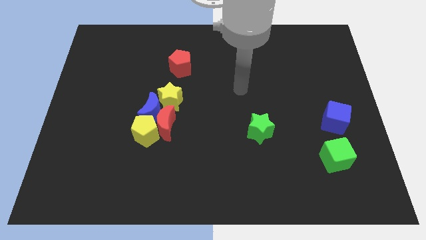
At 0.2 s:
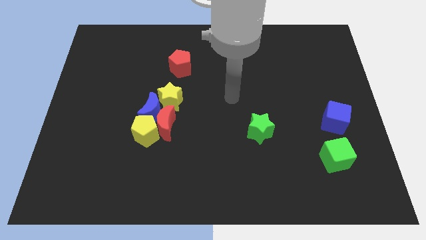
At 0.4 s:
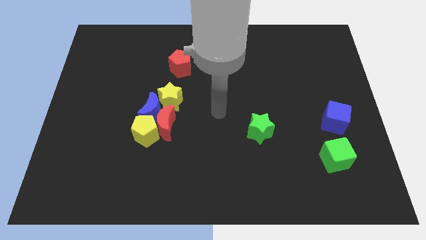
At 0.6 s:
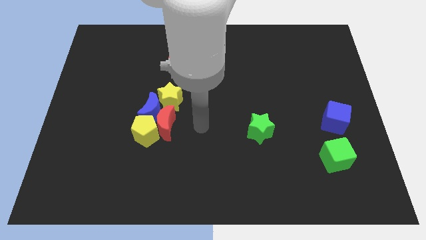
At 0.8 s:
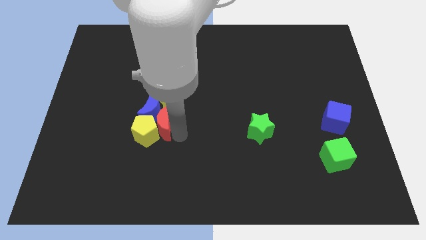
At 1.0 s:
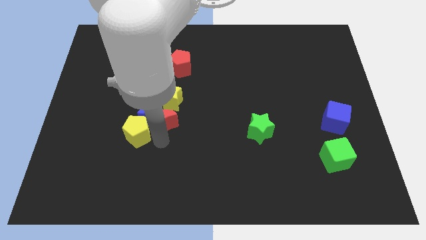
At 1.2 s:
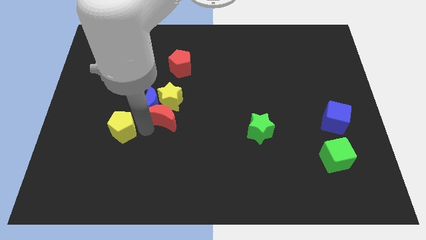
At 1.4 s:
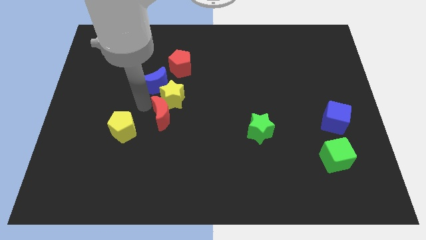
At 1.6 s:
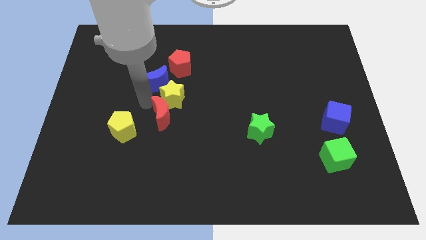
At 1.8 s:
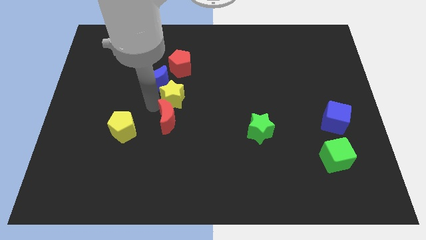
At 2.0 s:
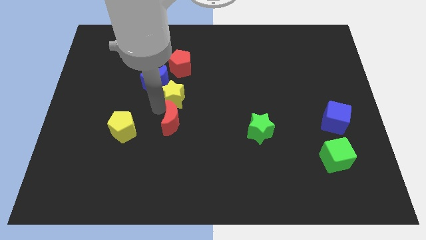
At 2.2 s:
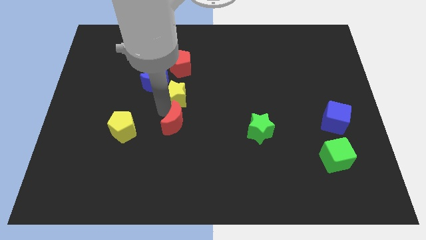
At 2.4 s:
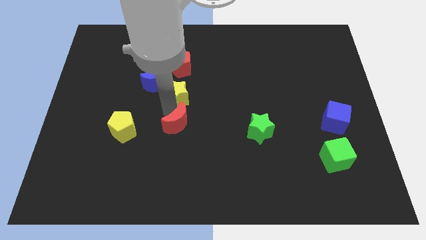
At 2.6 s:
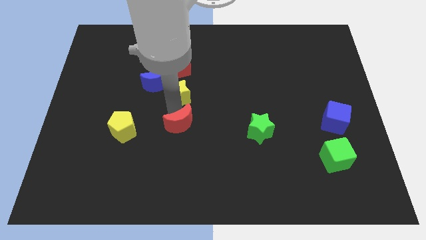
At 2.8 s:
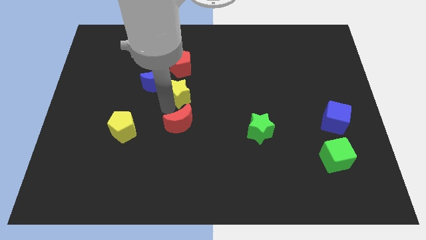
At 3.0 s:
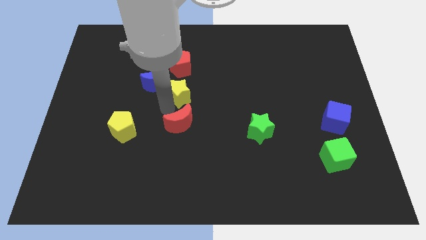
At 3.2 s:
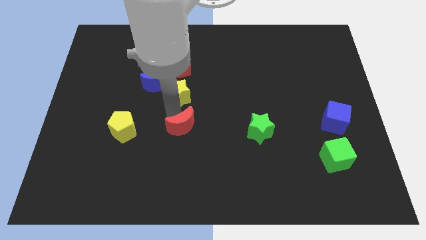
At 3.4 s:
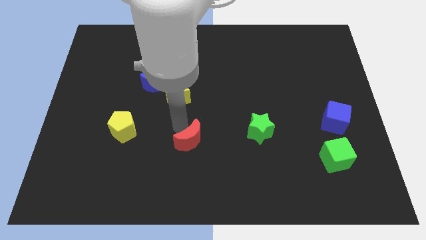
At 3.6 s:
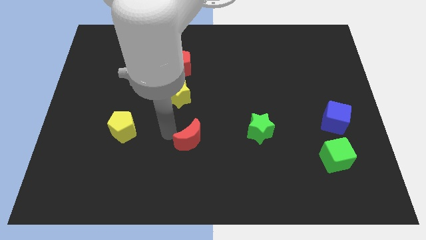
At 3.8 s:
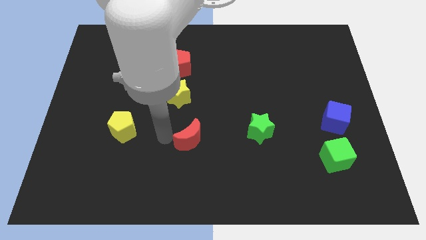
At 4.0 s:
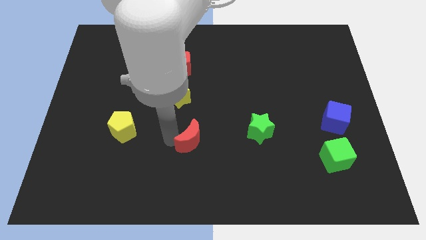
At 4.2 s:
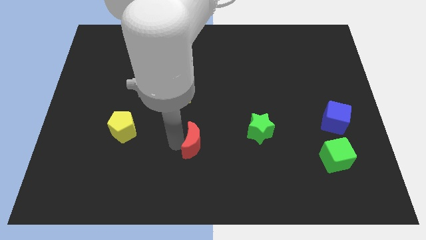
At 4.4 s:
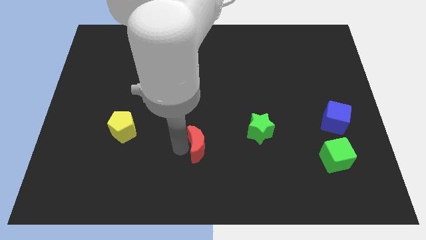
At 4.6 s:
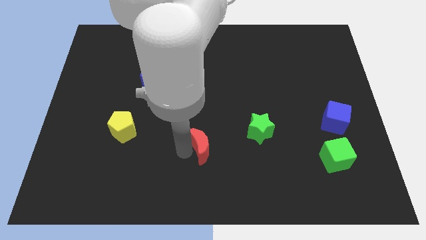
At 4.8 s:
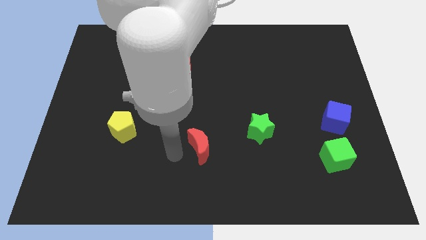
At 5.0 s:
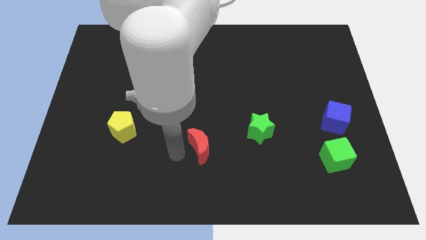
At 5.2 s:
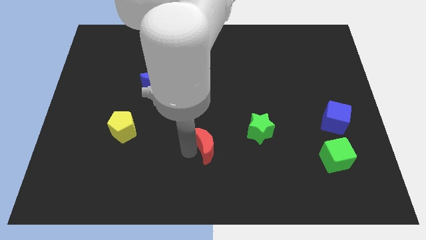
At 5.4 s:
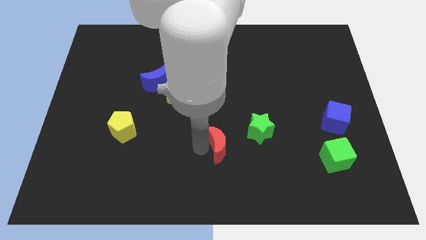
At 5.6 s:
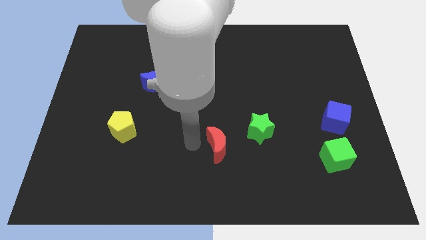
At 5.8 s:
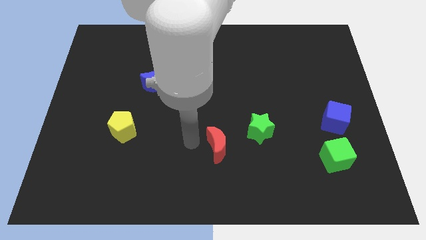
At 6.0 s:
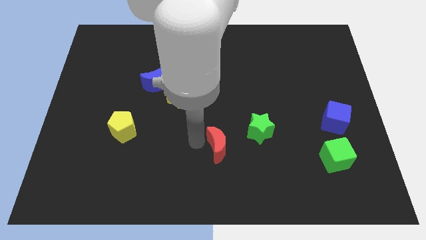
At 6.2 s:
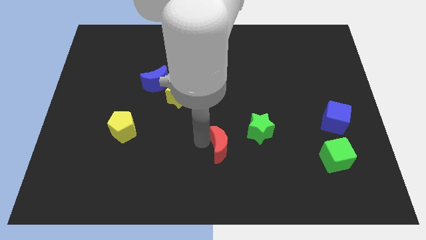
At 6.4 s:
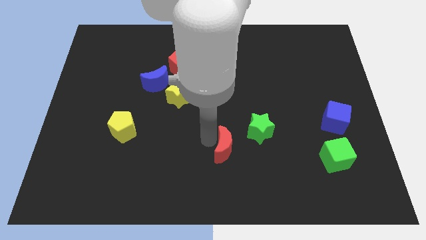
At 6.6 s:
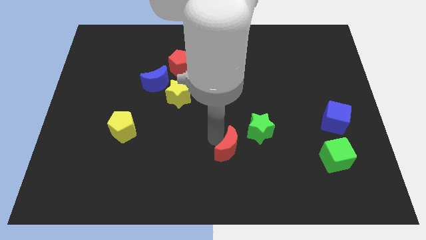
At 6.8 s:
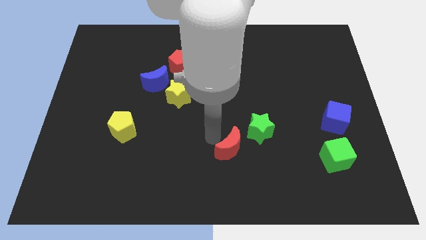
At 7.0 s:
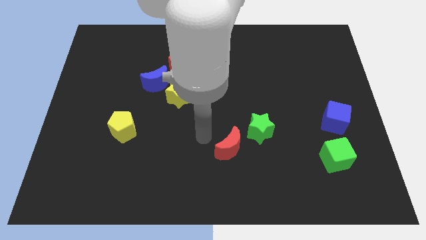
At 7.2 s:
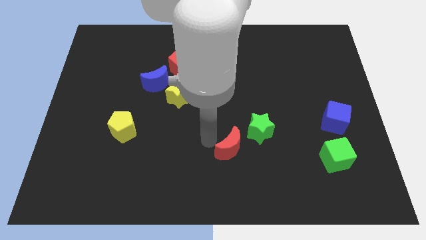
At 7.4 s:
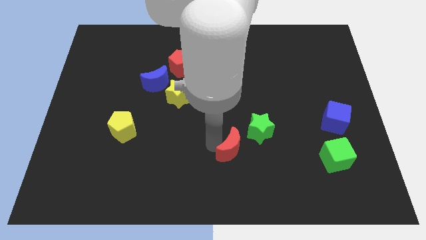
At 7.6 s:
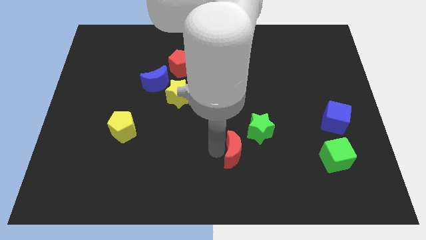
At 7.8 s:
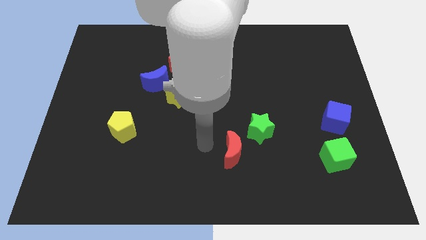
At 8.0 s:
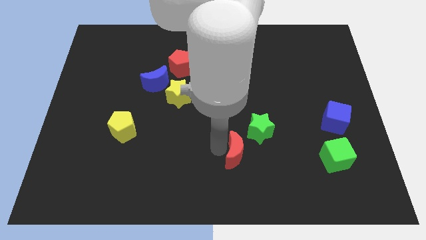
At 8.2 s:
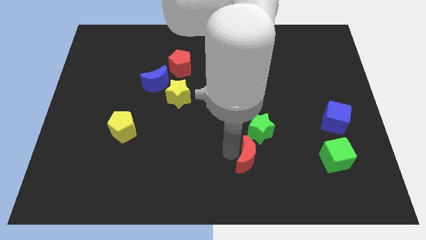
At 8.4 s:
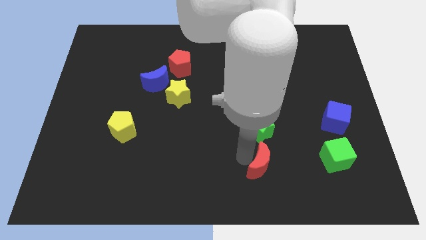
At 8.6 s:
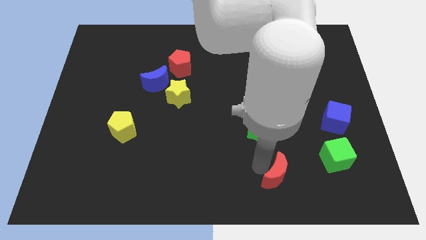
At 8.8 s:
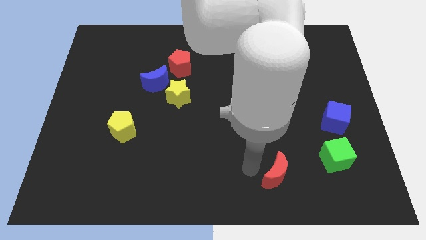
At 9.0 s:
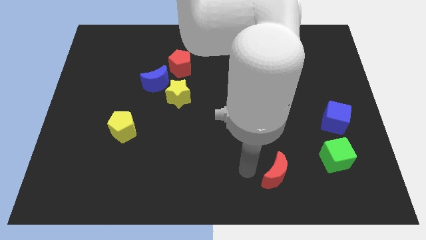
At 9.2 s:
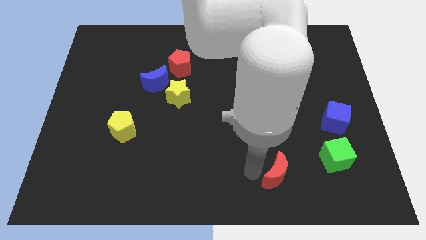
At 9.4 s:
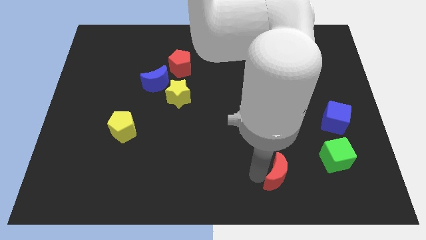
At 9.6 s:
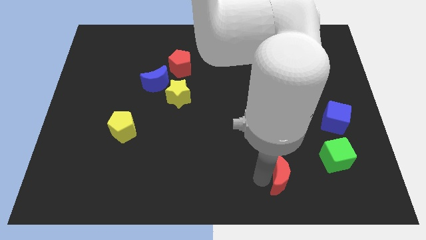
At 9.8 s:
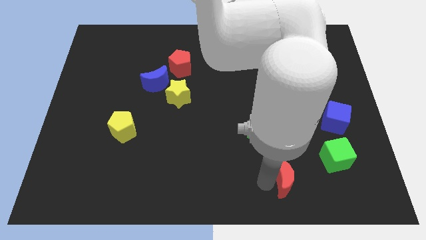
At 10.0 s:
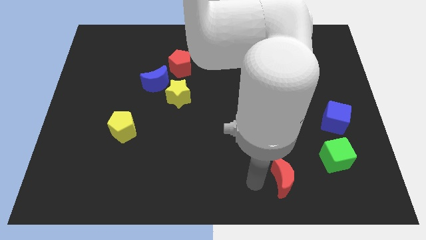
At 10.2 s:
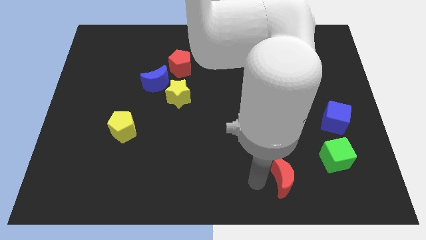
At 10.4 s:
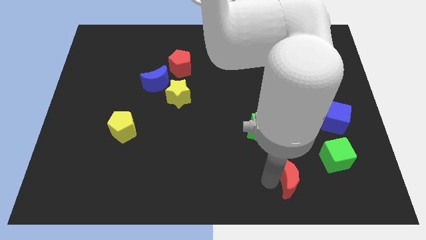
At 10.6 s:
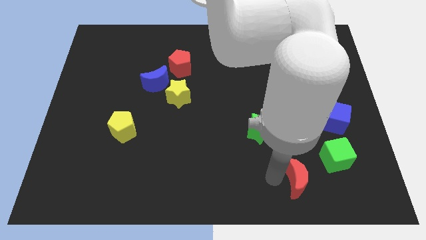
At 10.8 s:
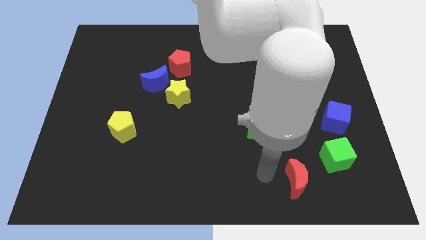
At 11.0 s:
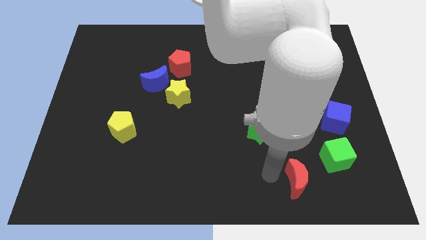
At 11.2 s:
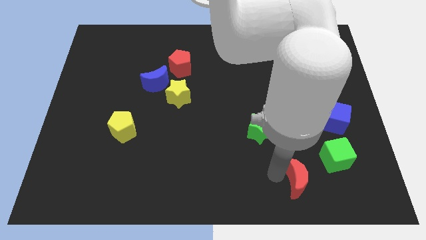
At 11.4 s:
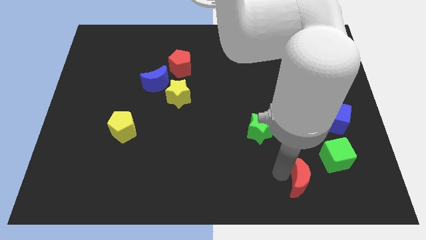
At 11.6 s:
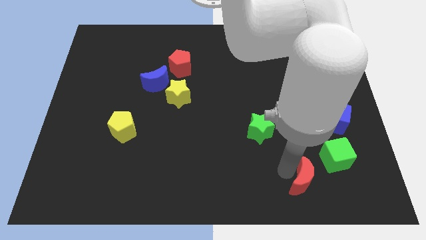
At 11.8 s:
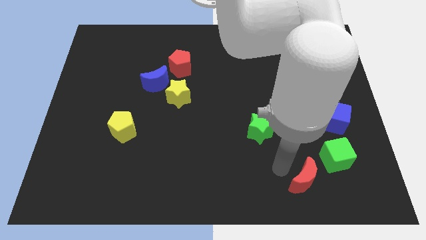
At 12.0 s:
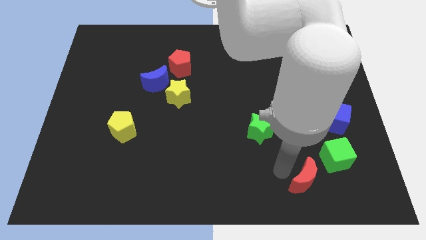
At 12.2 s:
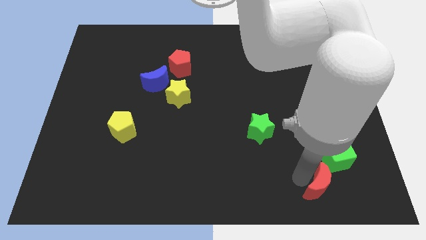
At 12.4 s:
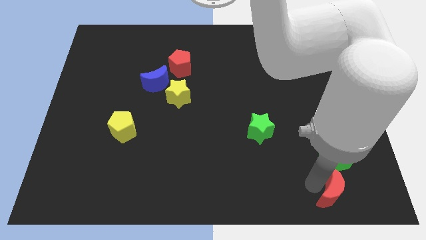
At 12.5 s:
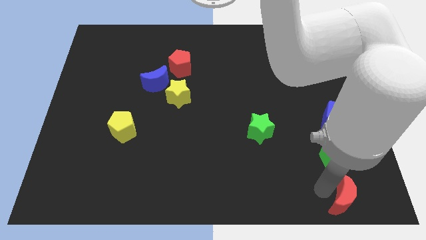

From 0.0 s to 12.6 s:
push the red moon to the bottom right of the board

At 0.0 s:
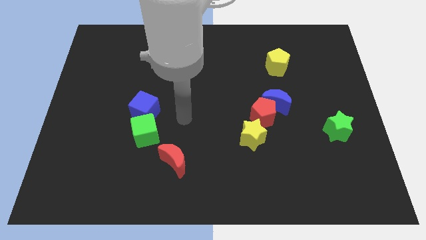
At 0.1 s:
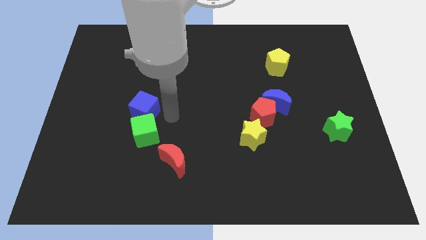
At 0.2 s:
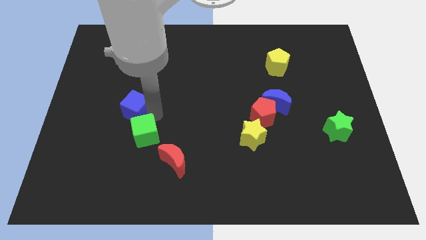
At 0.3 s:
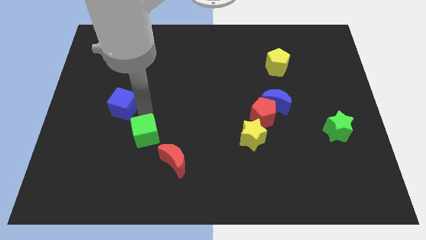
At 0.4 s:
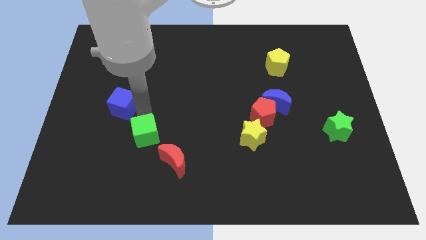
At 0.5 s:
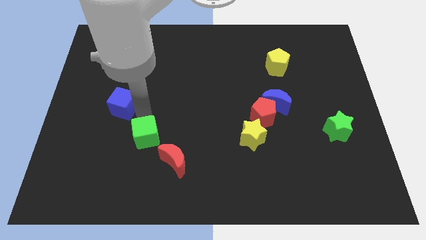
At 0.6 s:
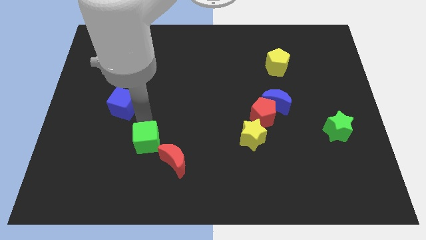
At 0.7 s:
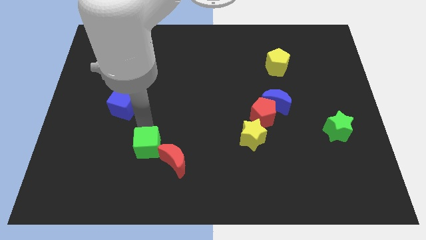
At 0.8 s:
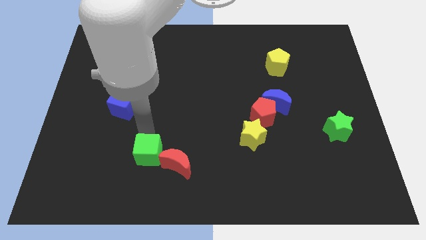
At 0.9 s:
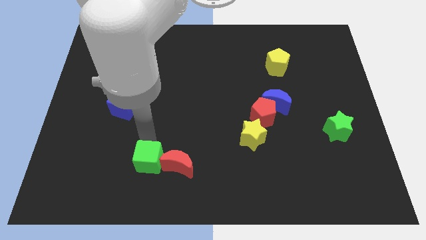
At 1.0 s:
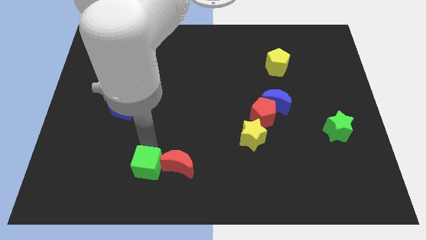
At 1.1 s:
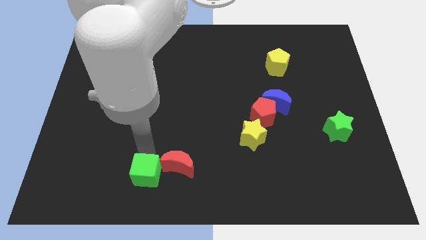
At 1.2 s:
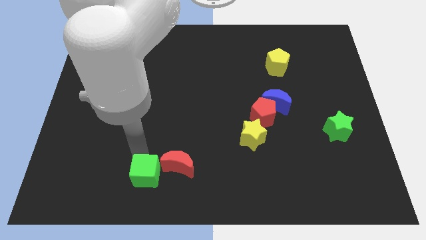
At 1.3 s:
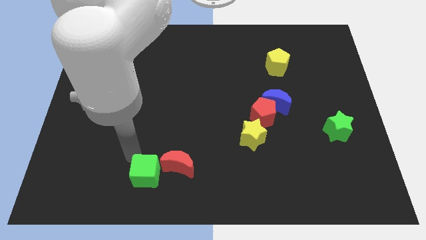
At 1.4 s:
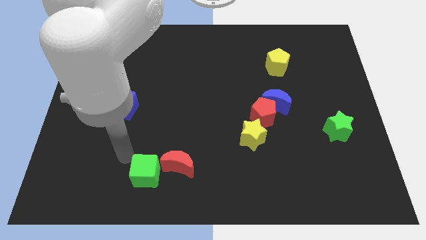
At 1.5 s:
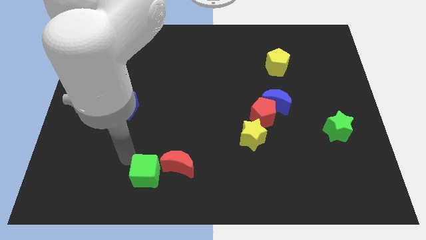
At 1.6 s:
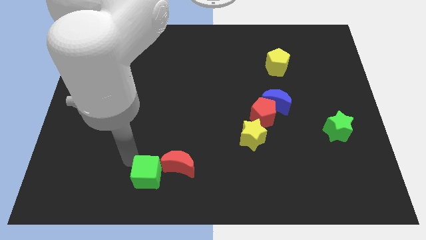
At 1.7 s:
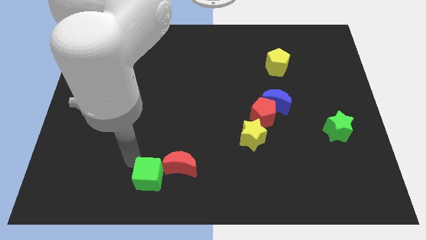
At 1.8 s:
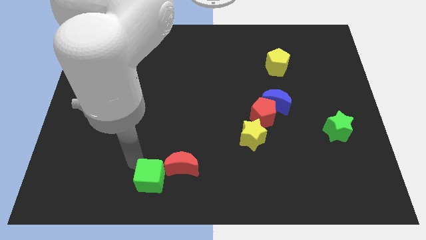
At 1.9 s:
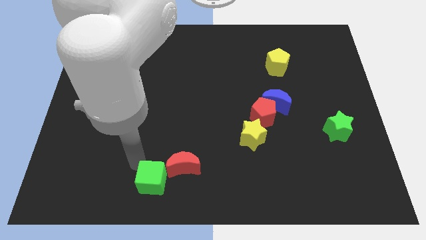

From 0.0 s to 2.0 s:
slide the green cube to the bottom
